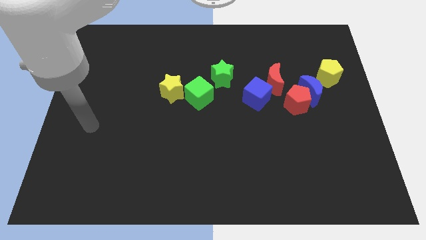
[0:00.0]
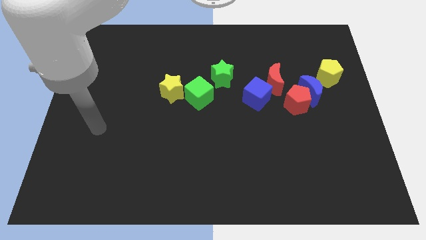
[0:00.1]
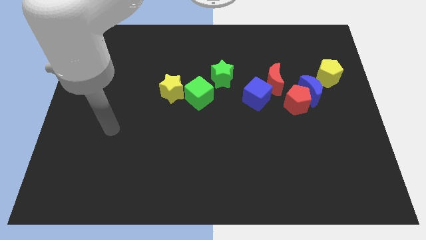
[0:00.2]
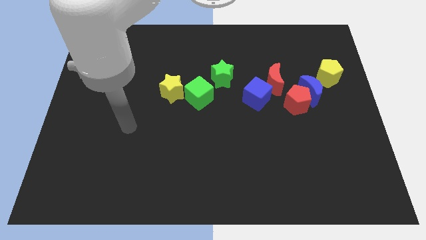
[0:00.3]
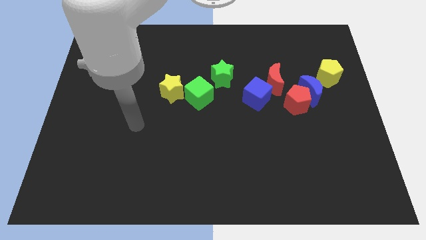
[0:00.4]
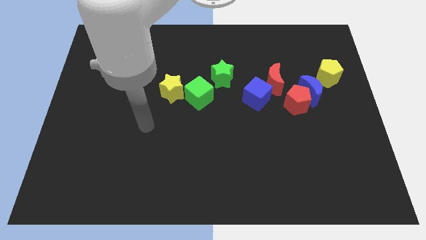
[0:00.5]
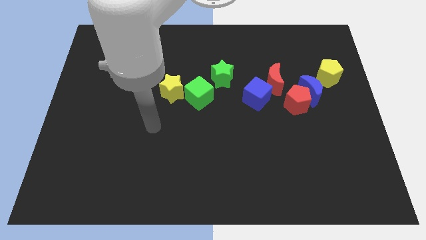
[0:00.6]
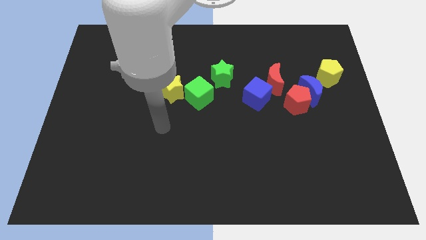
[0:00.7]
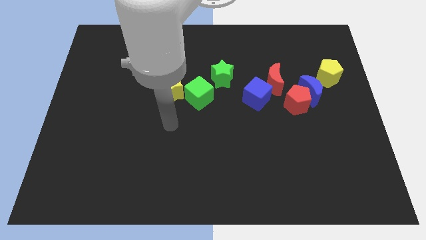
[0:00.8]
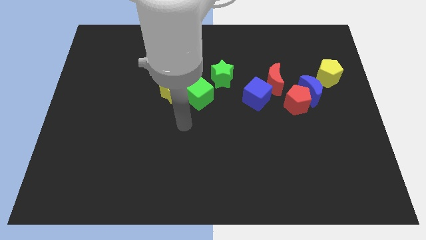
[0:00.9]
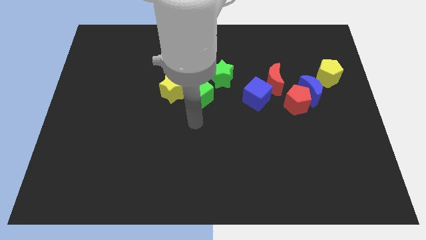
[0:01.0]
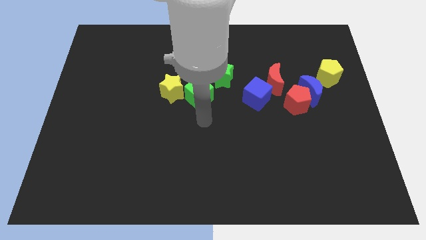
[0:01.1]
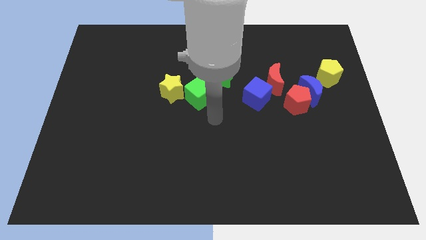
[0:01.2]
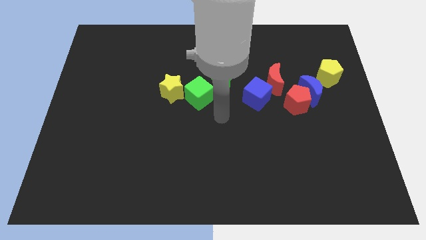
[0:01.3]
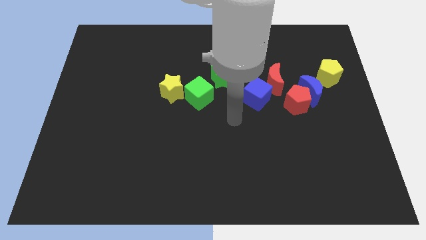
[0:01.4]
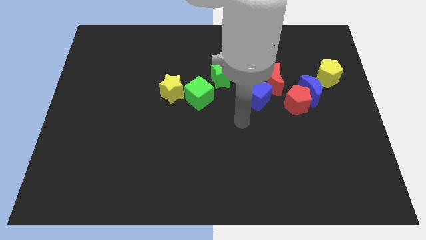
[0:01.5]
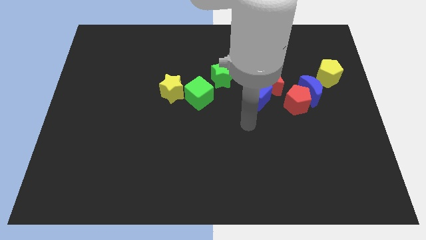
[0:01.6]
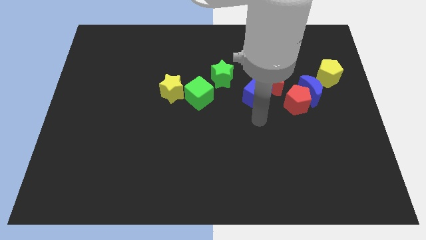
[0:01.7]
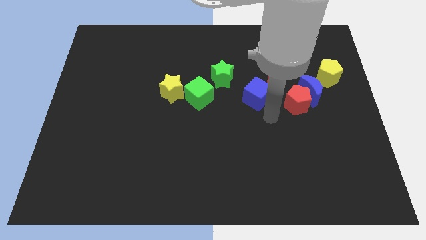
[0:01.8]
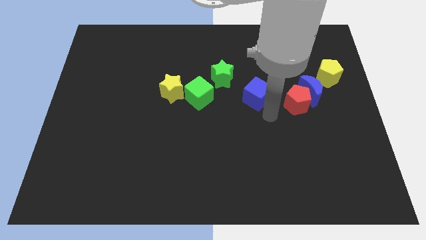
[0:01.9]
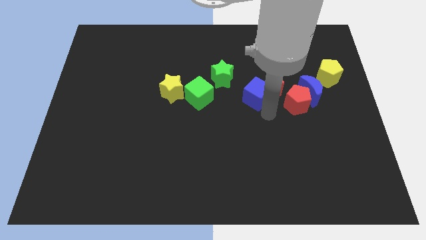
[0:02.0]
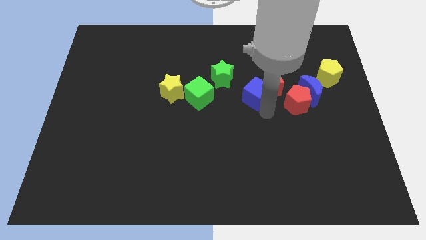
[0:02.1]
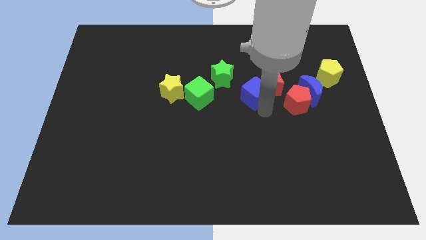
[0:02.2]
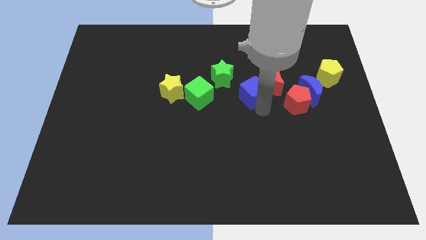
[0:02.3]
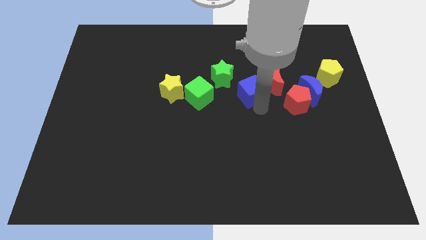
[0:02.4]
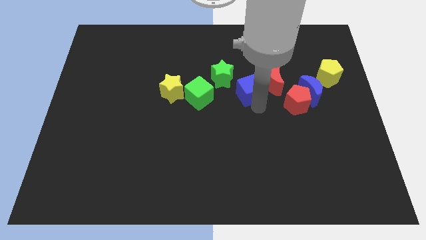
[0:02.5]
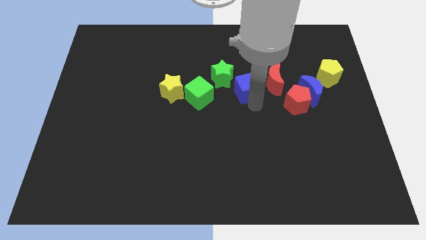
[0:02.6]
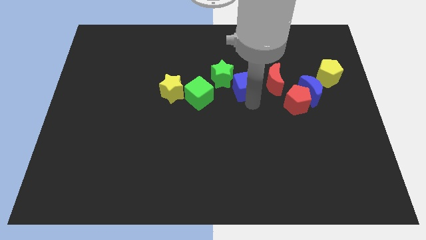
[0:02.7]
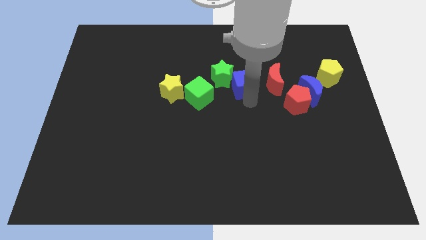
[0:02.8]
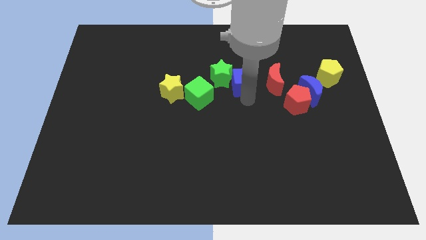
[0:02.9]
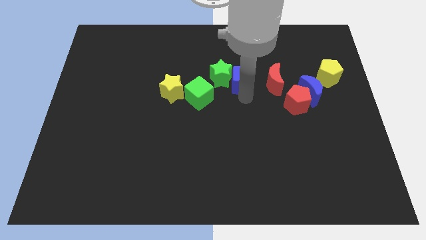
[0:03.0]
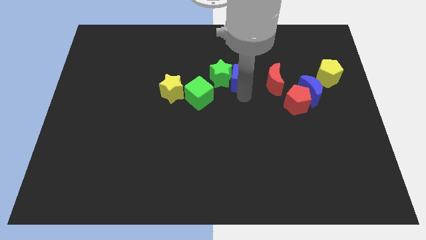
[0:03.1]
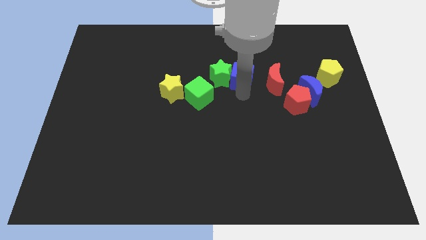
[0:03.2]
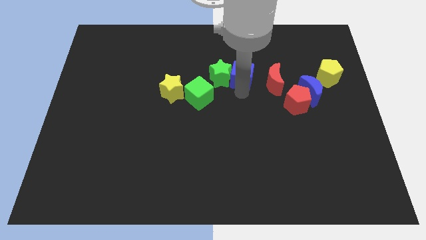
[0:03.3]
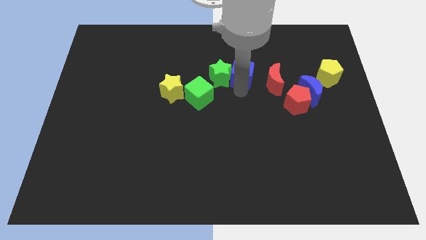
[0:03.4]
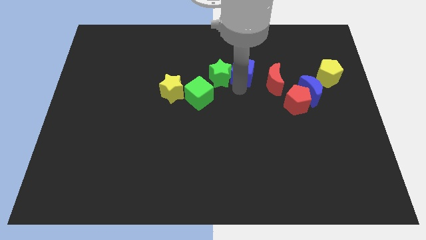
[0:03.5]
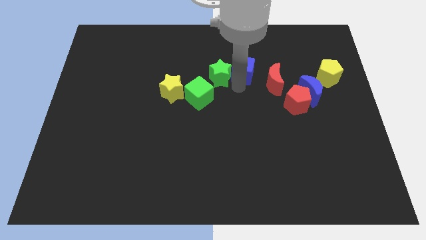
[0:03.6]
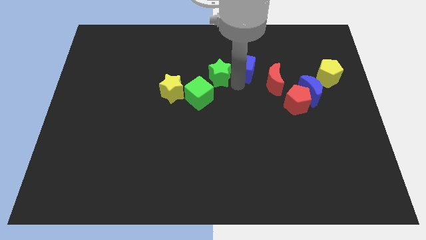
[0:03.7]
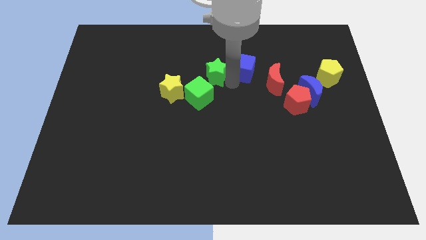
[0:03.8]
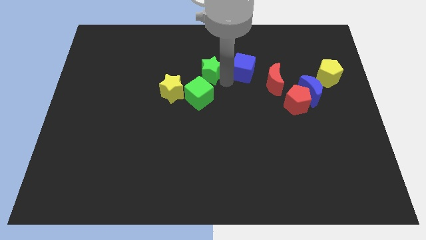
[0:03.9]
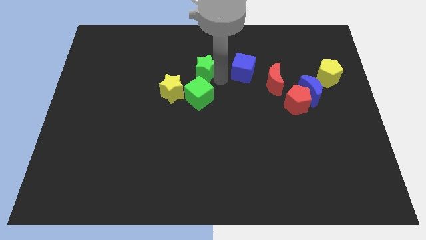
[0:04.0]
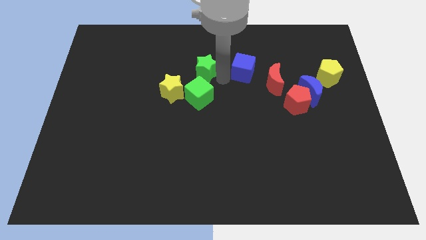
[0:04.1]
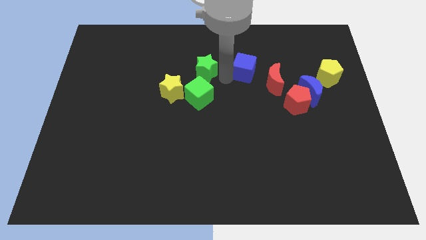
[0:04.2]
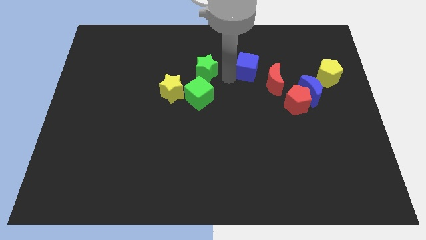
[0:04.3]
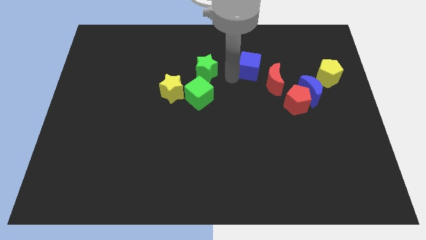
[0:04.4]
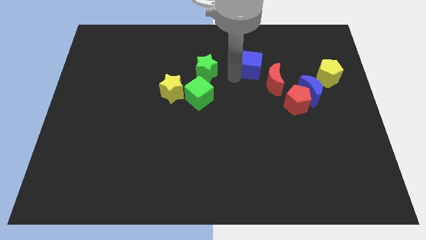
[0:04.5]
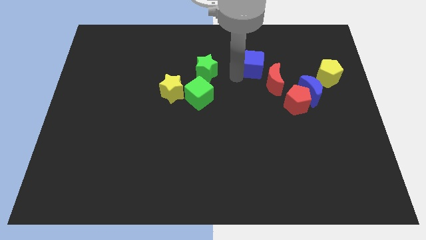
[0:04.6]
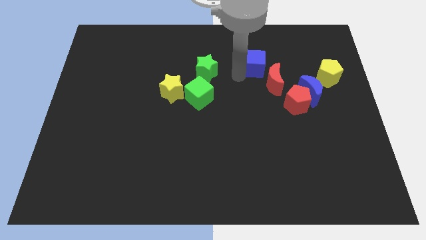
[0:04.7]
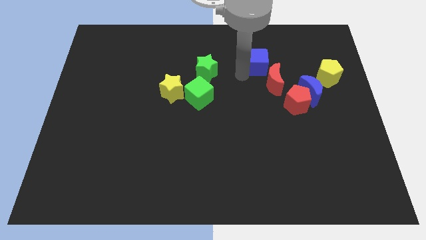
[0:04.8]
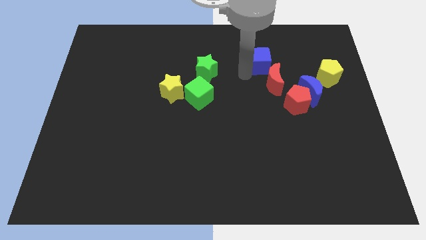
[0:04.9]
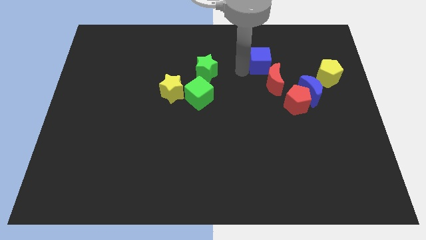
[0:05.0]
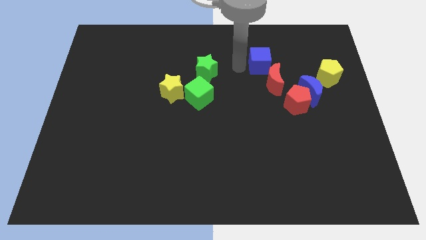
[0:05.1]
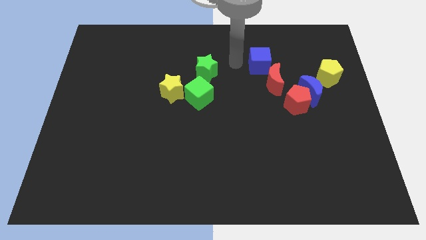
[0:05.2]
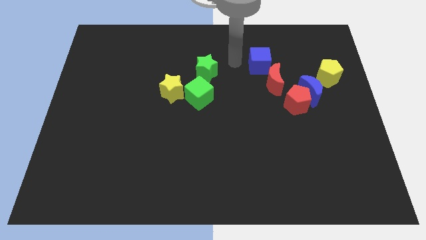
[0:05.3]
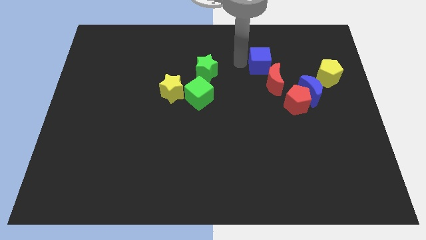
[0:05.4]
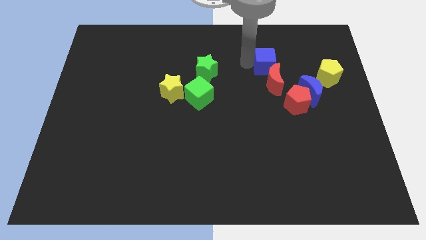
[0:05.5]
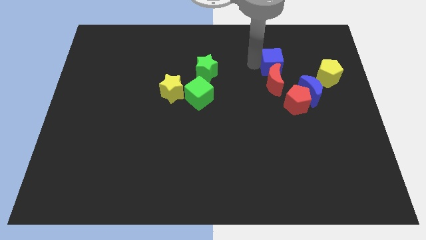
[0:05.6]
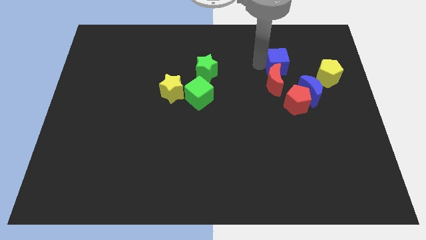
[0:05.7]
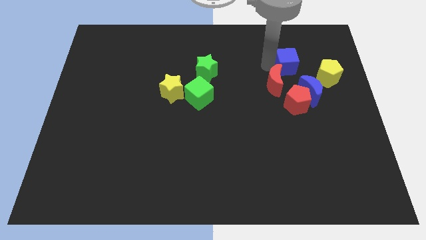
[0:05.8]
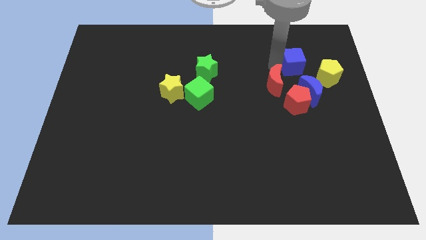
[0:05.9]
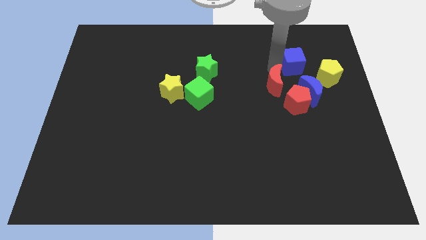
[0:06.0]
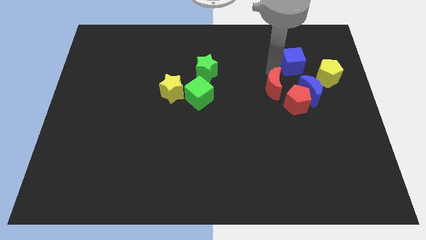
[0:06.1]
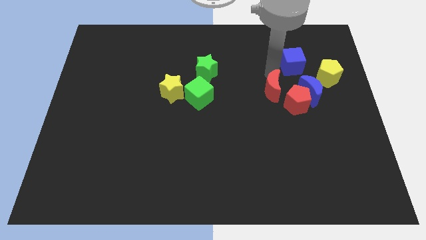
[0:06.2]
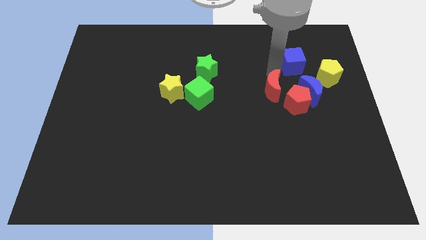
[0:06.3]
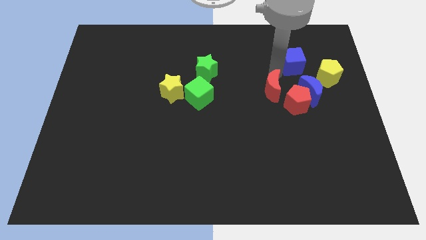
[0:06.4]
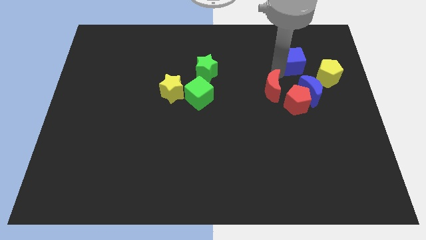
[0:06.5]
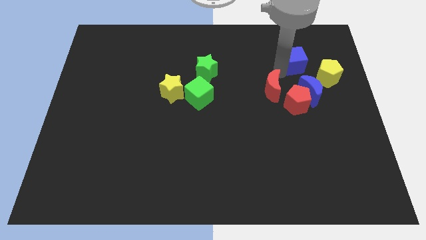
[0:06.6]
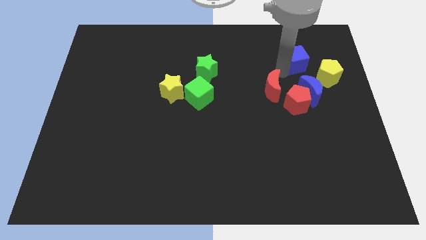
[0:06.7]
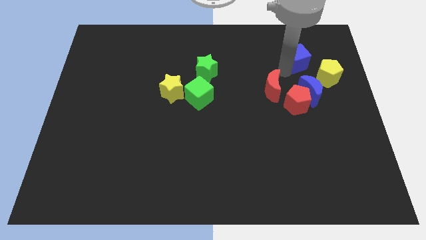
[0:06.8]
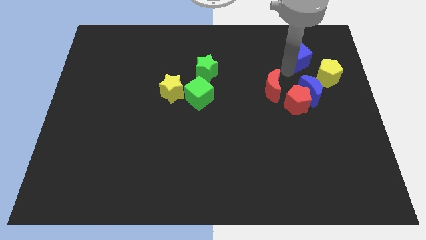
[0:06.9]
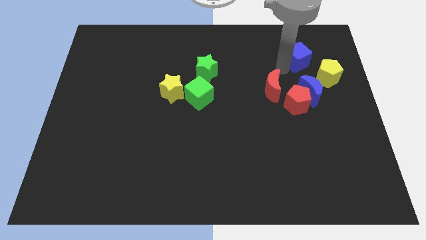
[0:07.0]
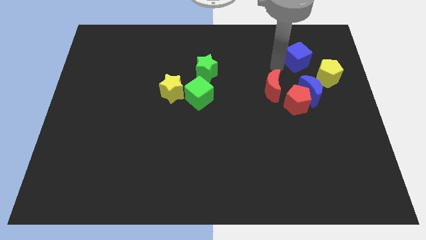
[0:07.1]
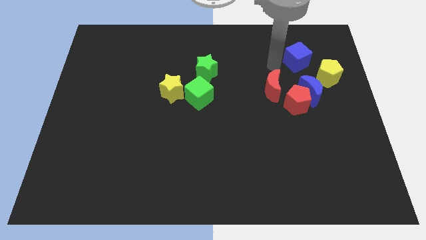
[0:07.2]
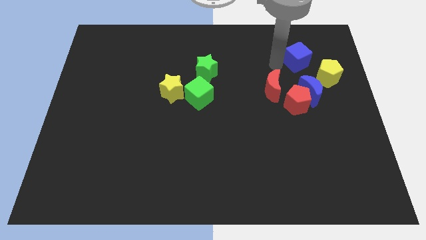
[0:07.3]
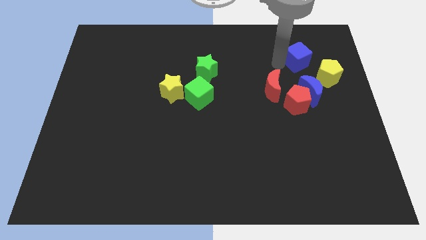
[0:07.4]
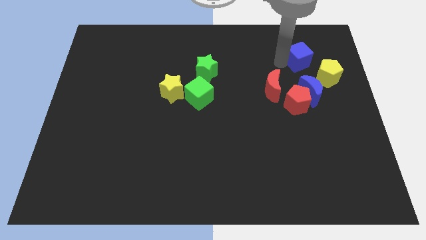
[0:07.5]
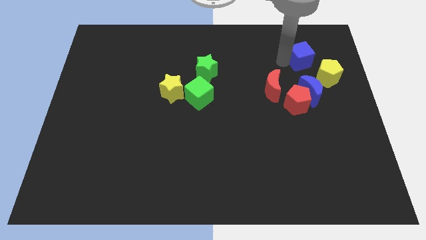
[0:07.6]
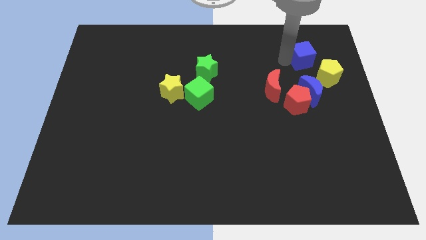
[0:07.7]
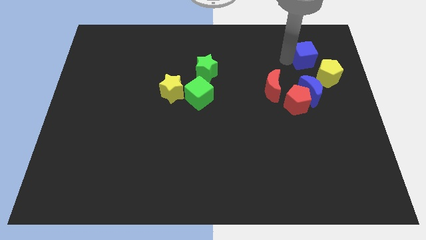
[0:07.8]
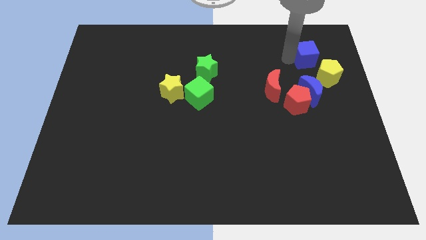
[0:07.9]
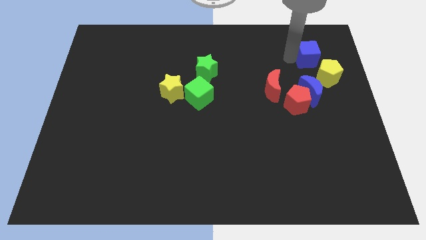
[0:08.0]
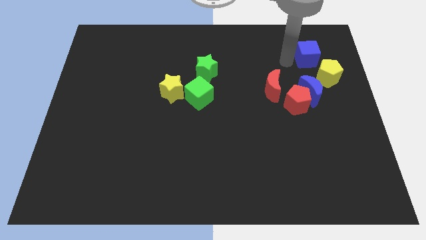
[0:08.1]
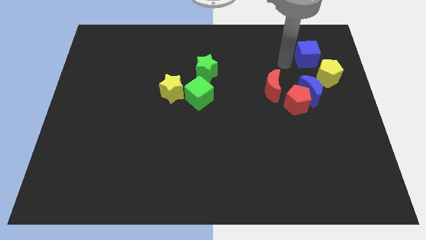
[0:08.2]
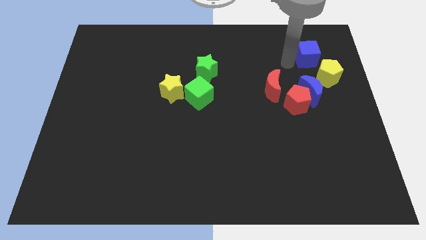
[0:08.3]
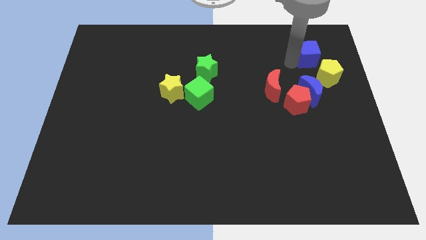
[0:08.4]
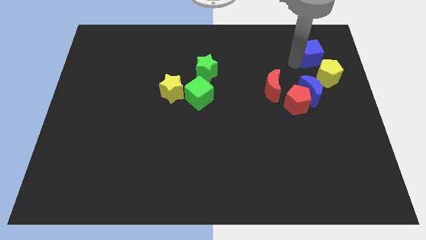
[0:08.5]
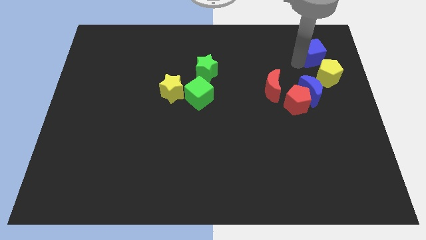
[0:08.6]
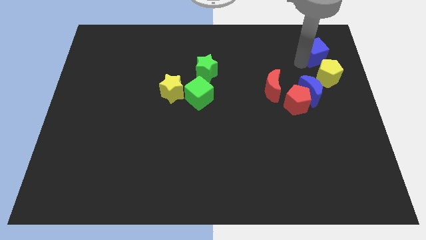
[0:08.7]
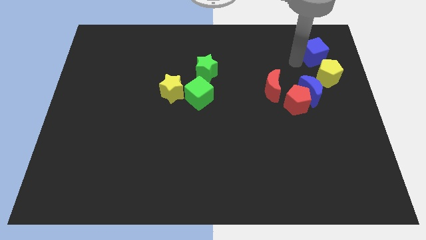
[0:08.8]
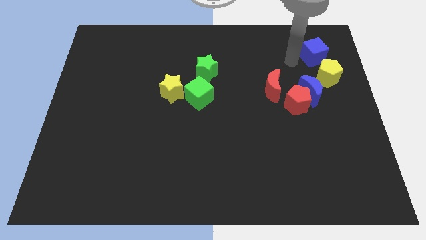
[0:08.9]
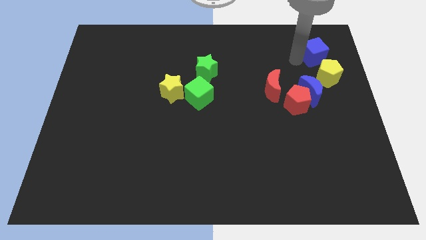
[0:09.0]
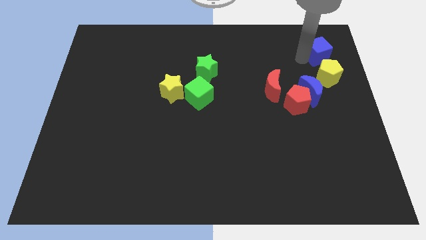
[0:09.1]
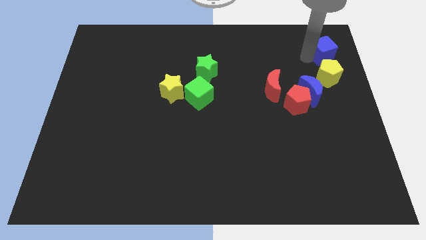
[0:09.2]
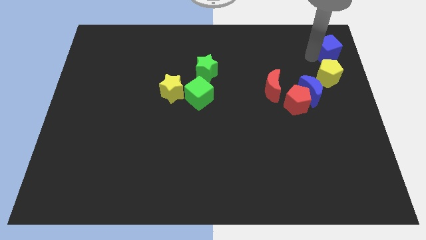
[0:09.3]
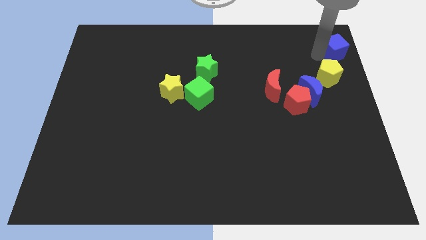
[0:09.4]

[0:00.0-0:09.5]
put the blue cube to the top right corner
